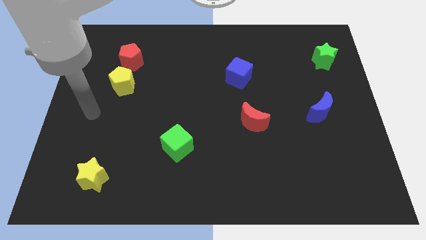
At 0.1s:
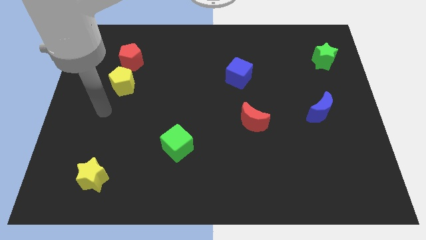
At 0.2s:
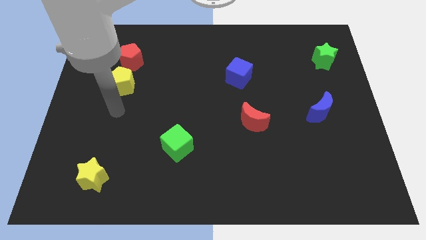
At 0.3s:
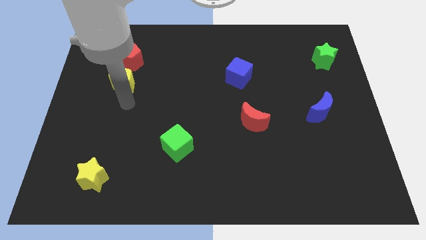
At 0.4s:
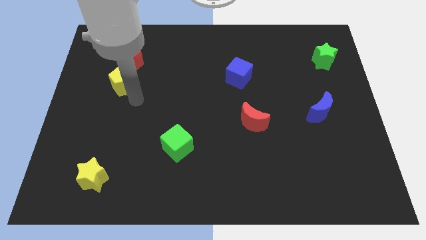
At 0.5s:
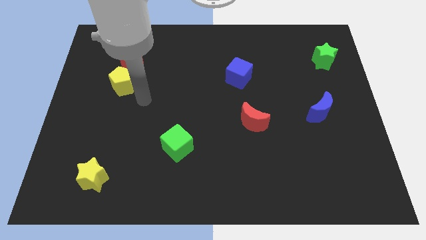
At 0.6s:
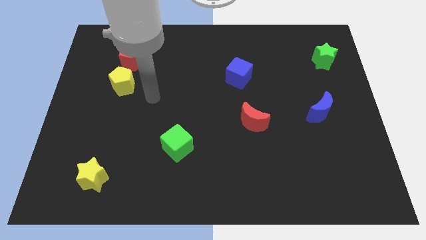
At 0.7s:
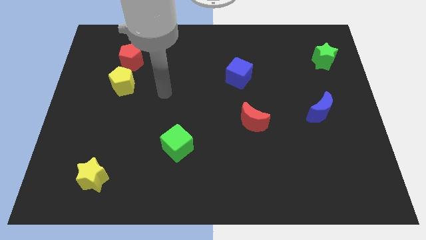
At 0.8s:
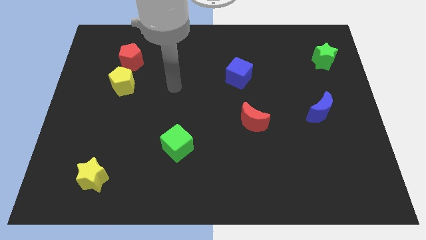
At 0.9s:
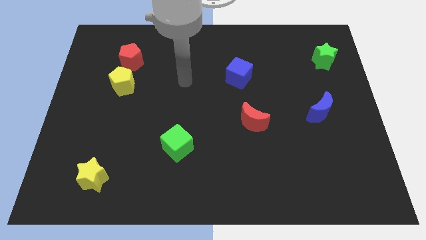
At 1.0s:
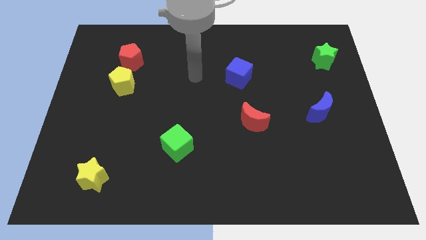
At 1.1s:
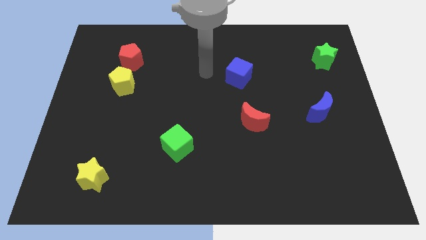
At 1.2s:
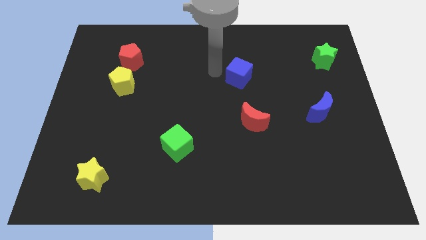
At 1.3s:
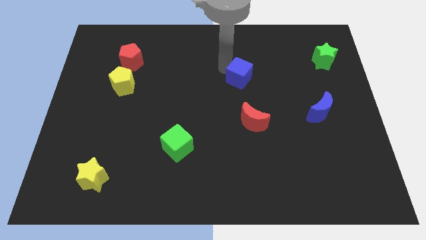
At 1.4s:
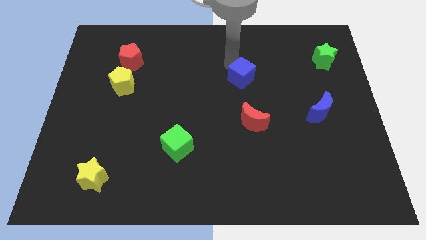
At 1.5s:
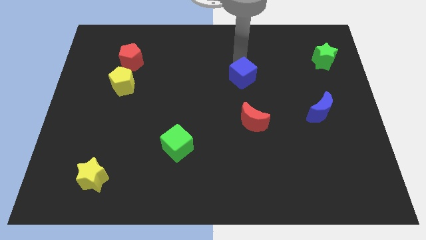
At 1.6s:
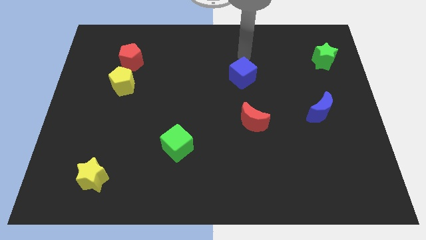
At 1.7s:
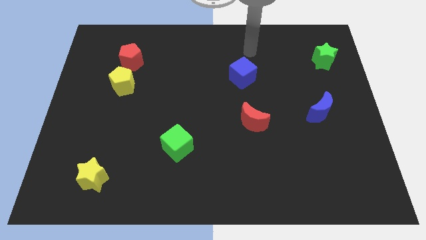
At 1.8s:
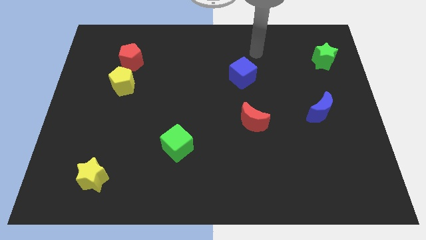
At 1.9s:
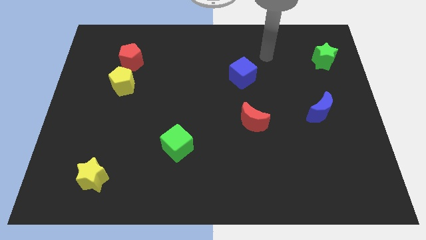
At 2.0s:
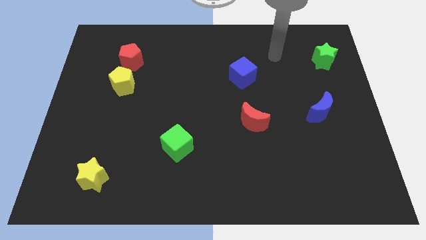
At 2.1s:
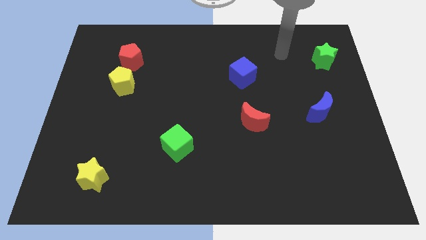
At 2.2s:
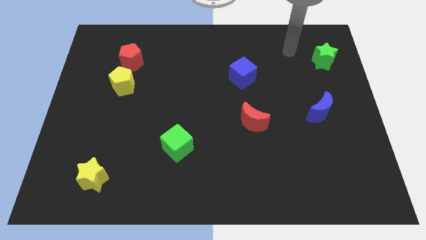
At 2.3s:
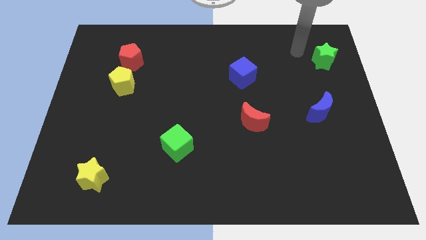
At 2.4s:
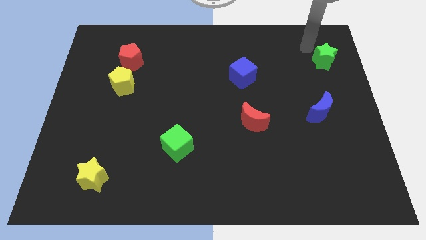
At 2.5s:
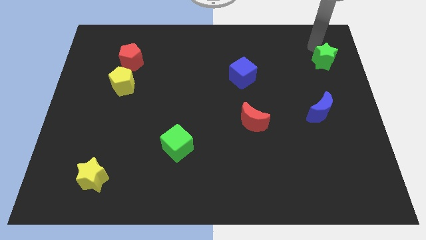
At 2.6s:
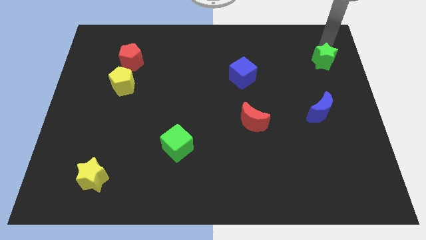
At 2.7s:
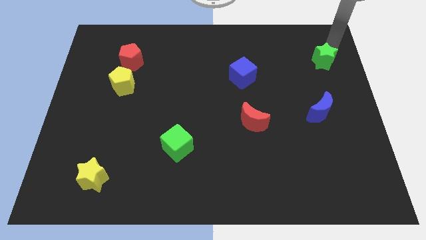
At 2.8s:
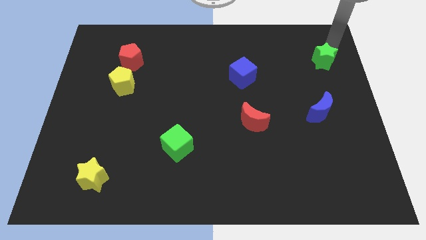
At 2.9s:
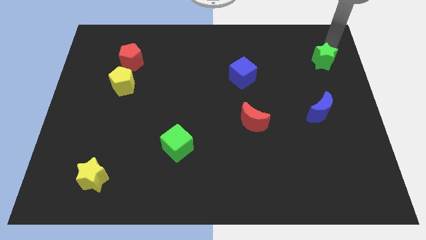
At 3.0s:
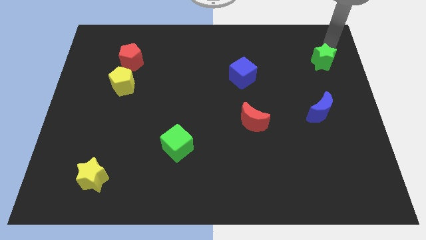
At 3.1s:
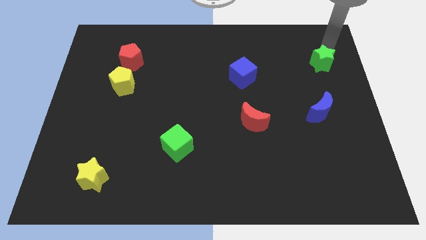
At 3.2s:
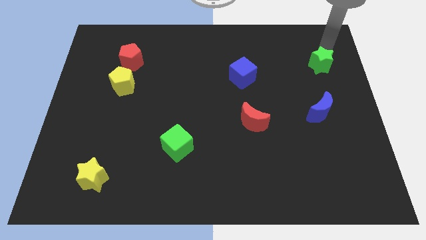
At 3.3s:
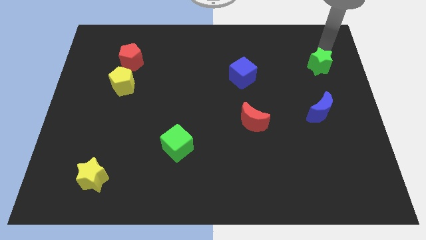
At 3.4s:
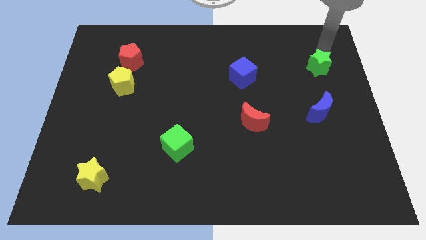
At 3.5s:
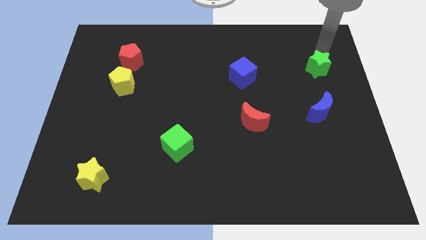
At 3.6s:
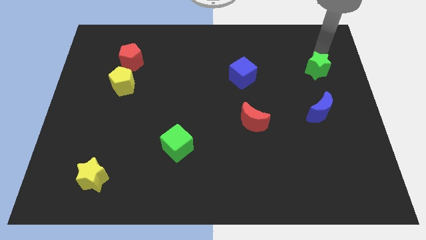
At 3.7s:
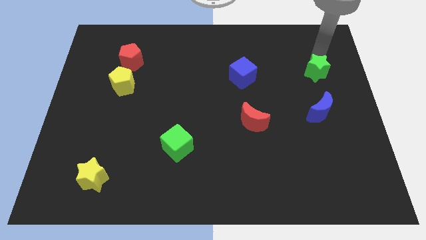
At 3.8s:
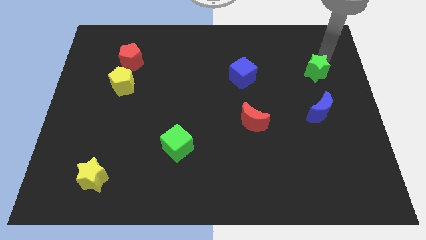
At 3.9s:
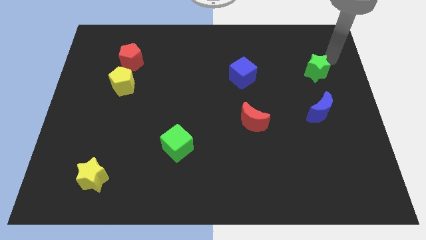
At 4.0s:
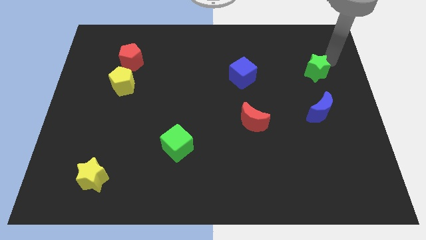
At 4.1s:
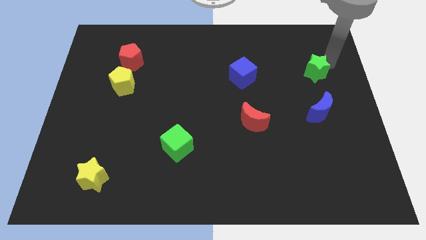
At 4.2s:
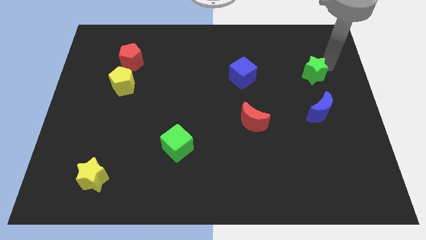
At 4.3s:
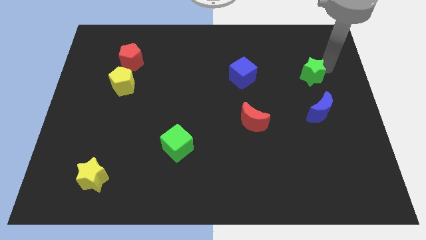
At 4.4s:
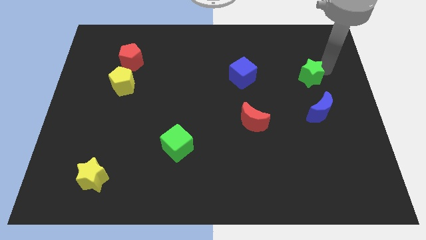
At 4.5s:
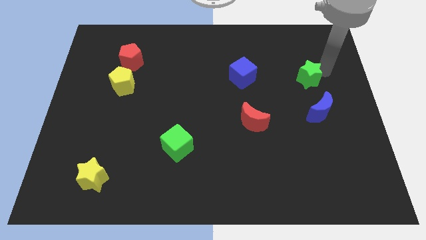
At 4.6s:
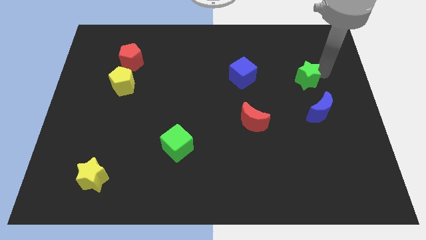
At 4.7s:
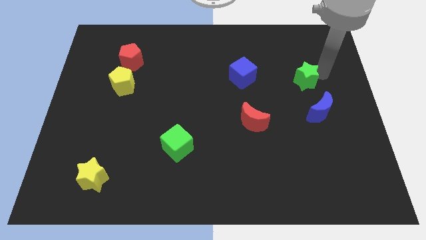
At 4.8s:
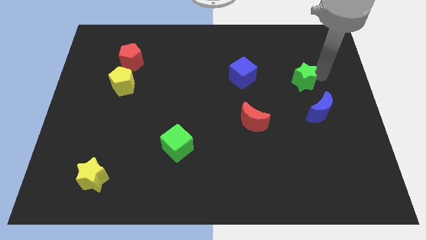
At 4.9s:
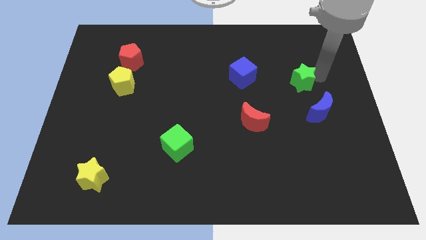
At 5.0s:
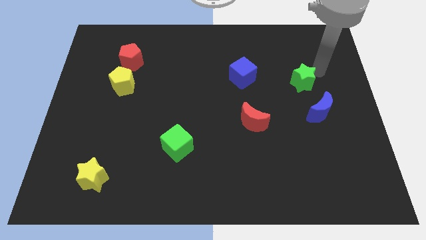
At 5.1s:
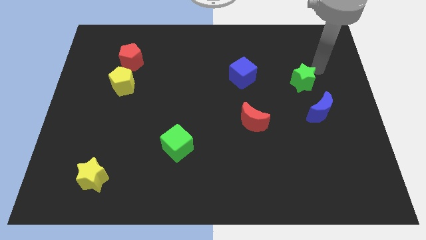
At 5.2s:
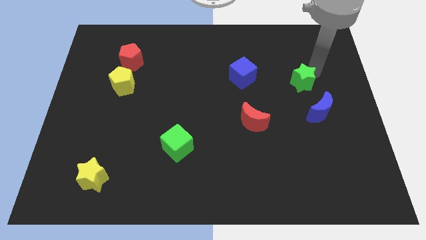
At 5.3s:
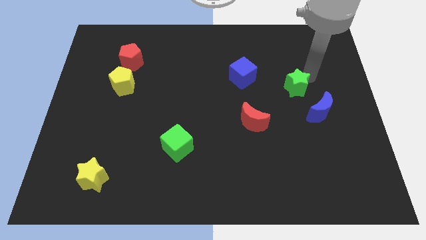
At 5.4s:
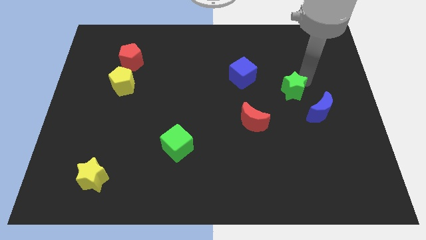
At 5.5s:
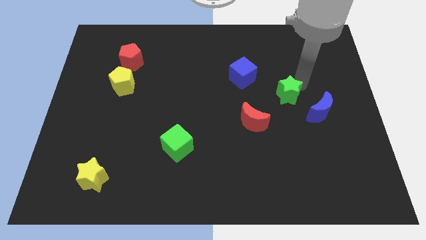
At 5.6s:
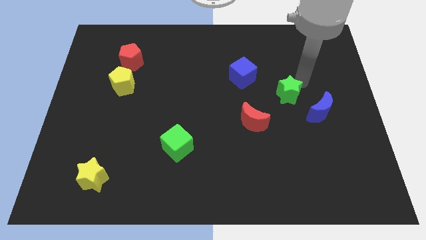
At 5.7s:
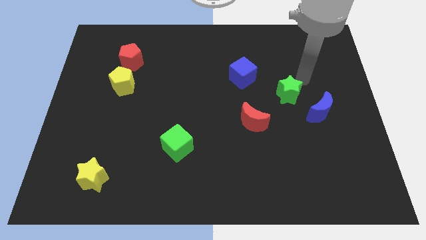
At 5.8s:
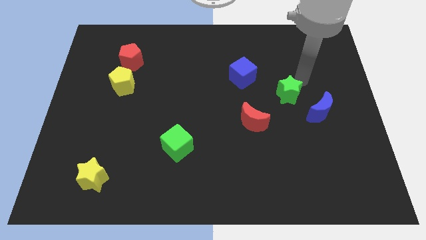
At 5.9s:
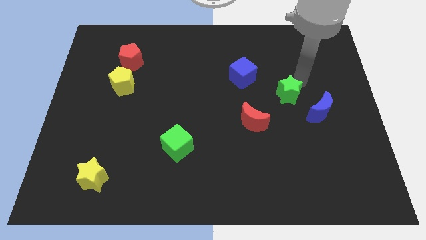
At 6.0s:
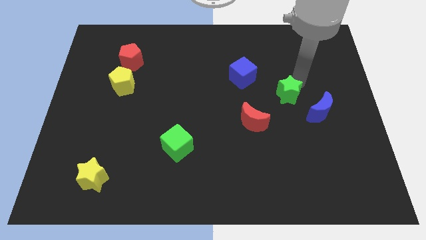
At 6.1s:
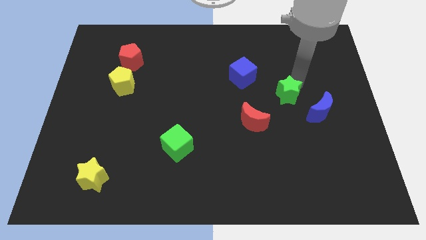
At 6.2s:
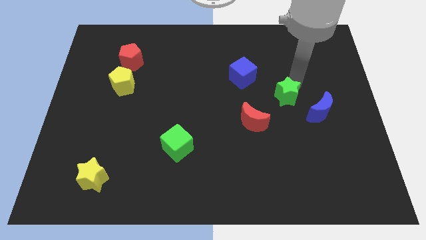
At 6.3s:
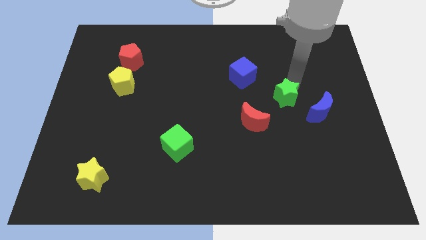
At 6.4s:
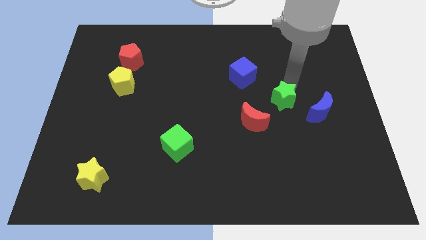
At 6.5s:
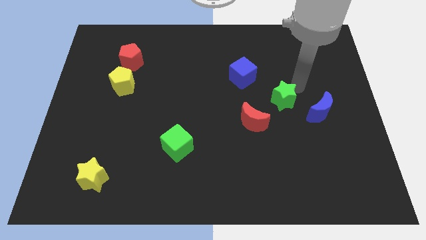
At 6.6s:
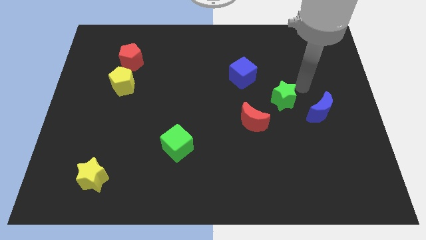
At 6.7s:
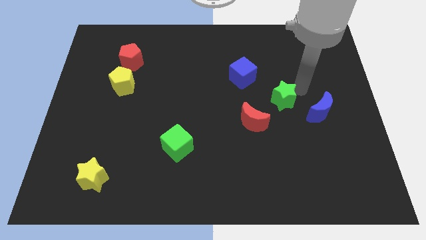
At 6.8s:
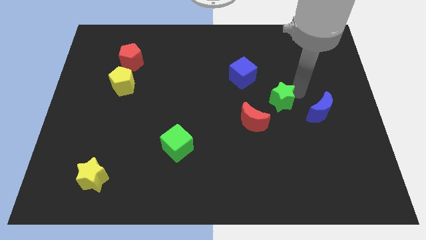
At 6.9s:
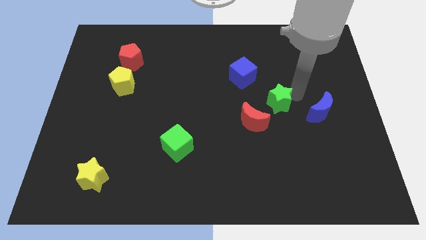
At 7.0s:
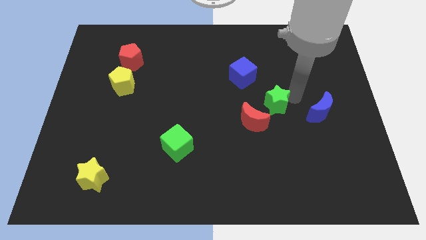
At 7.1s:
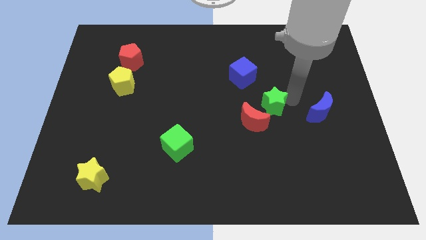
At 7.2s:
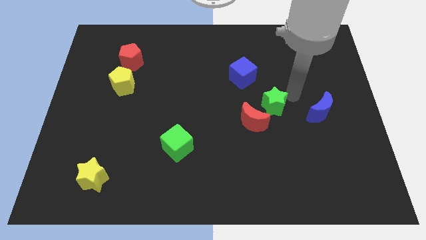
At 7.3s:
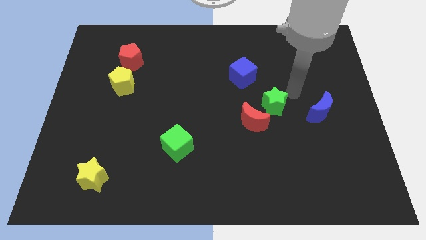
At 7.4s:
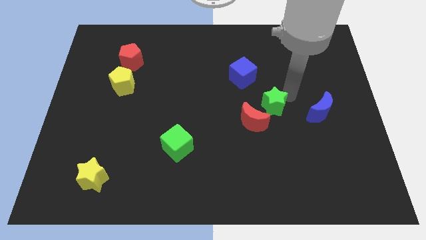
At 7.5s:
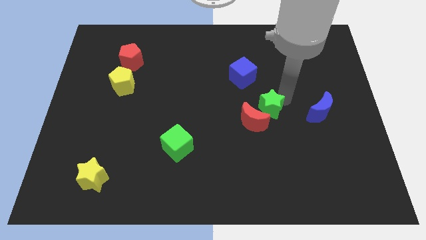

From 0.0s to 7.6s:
move the green star next to the red moon
